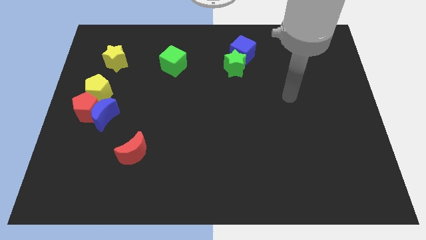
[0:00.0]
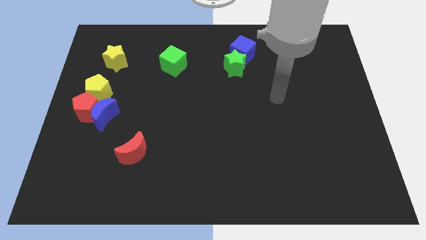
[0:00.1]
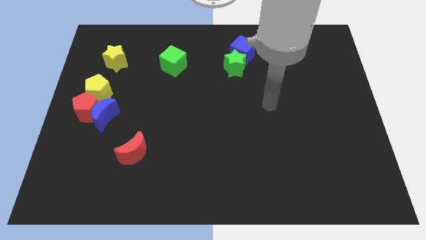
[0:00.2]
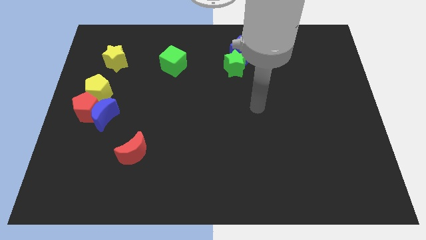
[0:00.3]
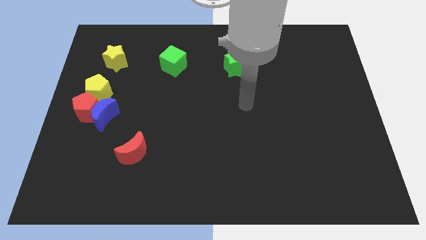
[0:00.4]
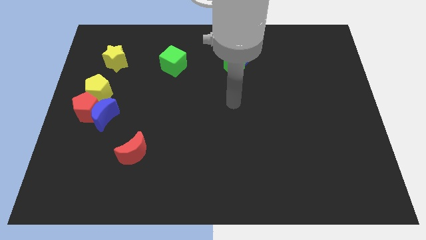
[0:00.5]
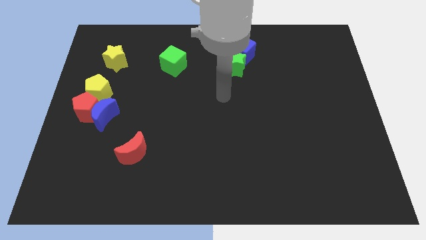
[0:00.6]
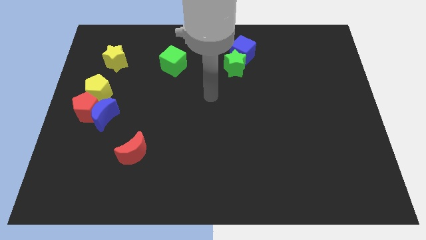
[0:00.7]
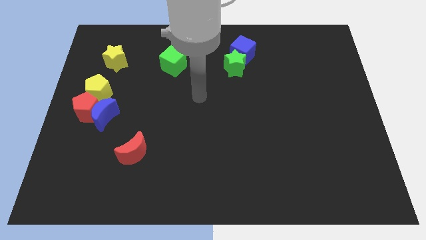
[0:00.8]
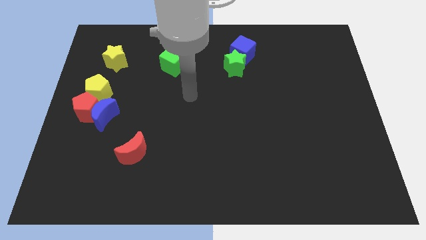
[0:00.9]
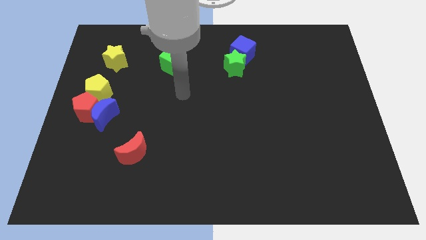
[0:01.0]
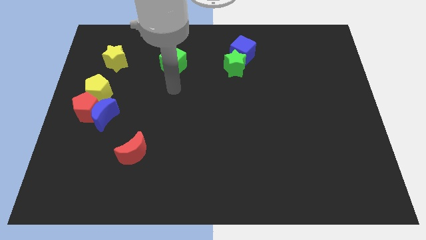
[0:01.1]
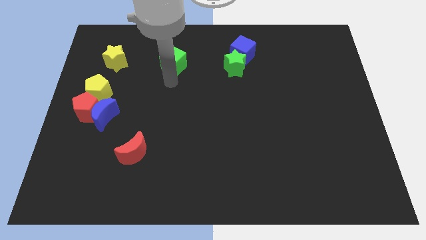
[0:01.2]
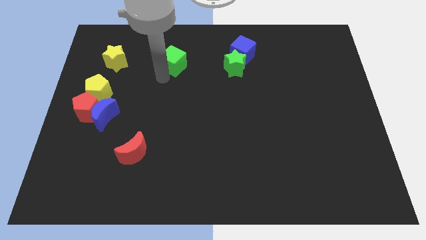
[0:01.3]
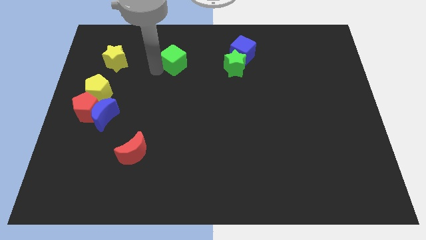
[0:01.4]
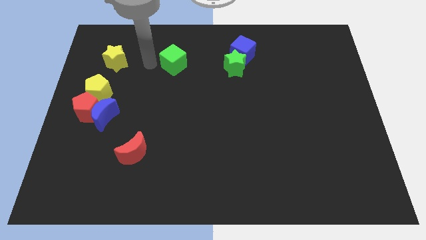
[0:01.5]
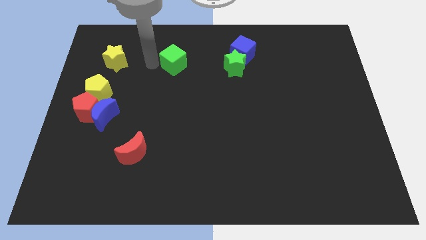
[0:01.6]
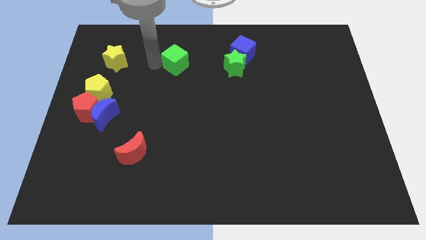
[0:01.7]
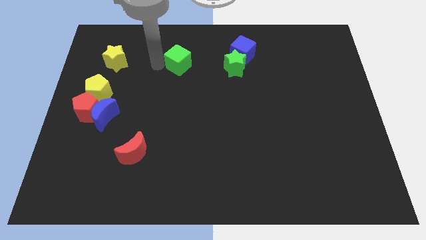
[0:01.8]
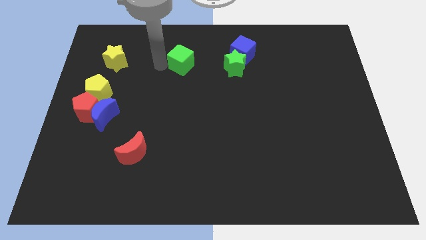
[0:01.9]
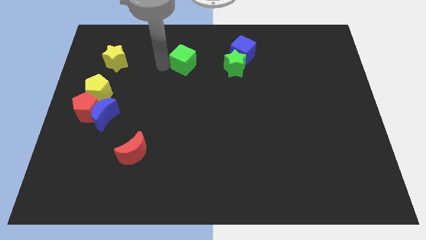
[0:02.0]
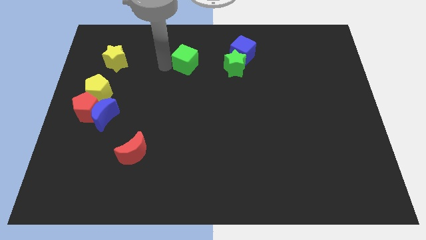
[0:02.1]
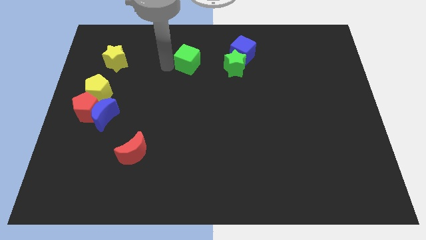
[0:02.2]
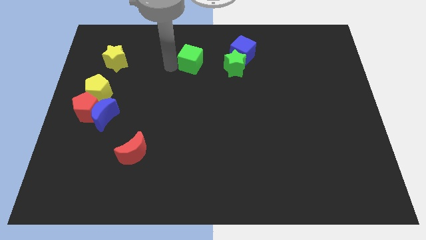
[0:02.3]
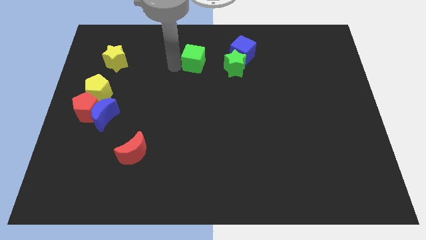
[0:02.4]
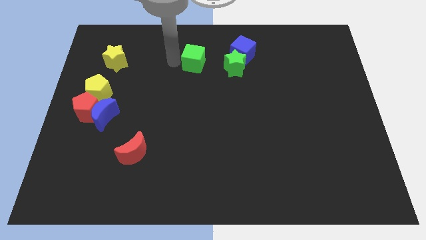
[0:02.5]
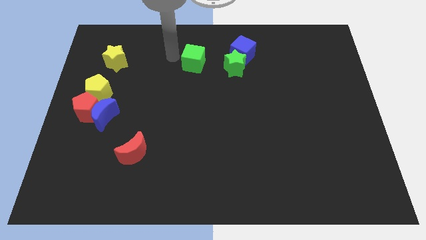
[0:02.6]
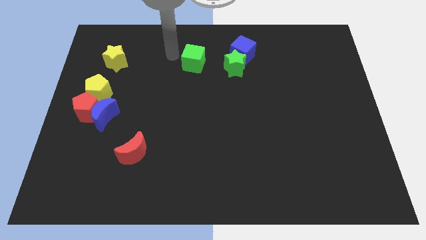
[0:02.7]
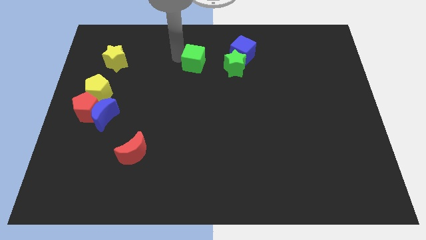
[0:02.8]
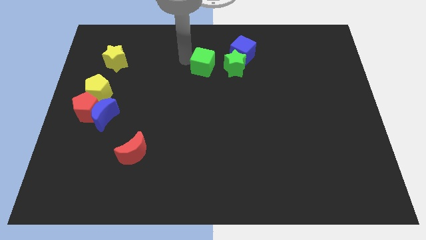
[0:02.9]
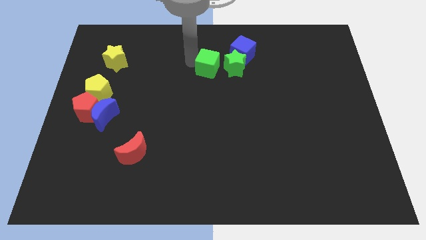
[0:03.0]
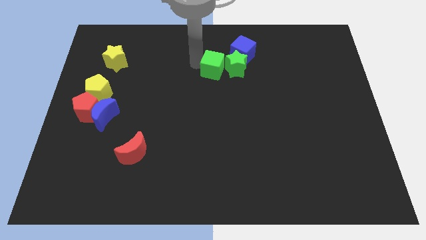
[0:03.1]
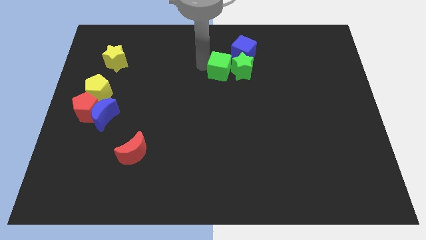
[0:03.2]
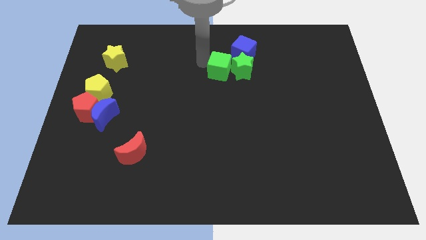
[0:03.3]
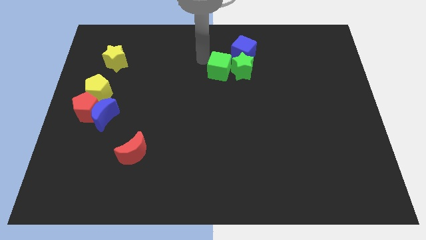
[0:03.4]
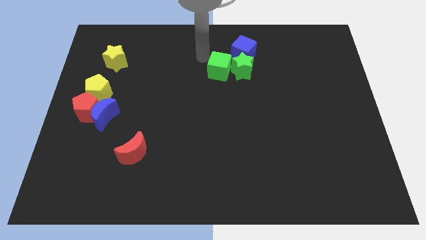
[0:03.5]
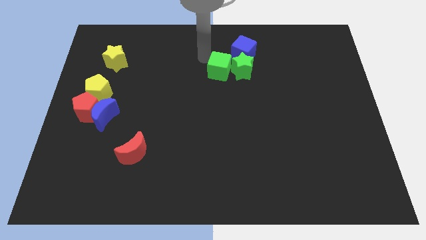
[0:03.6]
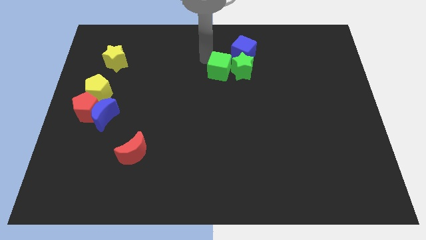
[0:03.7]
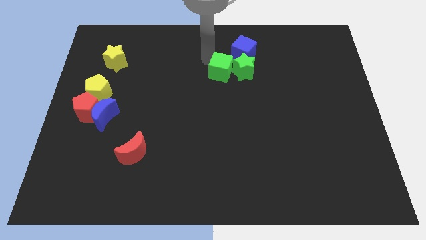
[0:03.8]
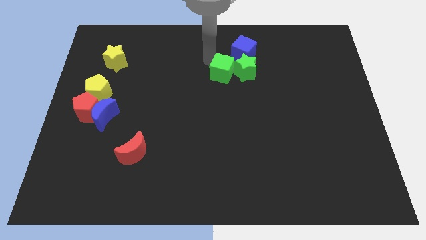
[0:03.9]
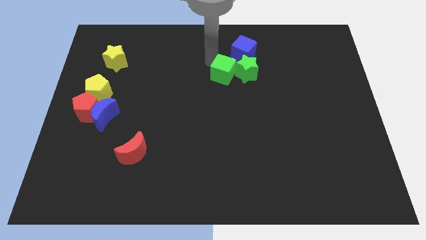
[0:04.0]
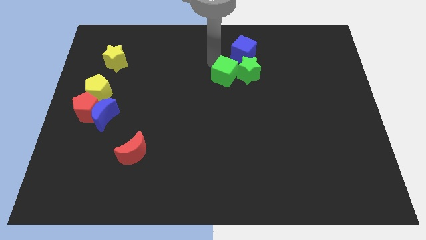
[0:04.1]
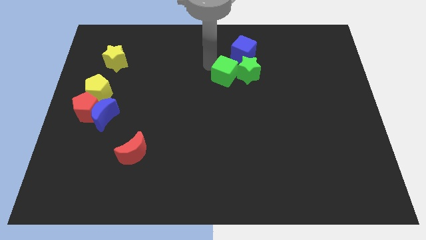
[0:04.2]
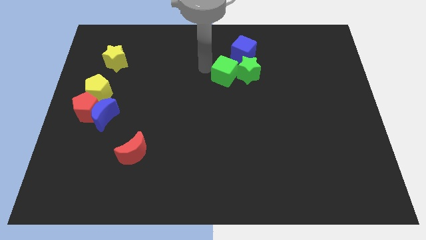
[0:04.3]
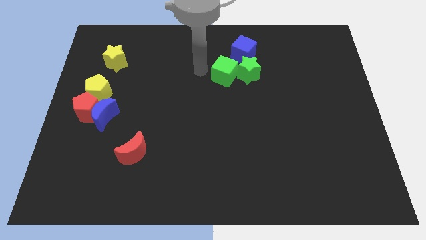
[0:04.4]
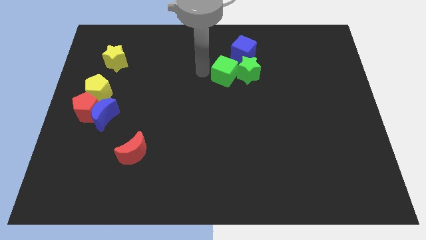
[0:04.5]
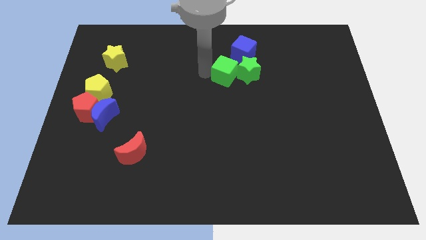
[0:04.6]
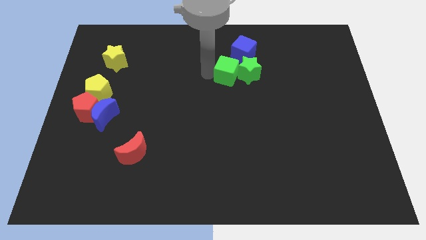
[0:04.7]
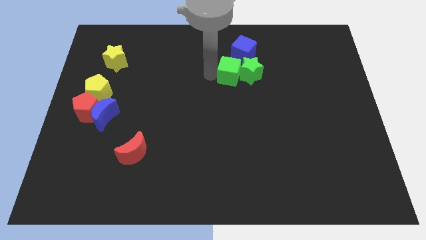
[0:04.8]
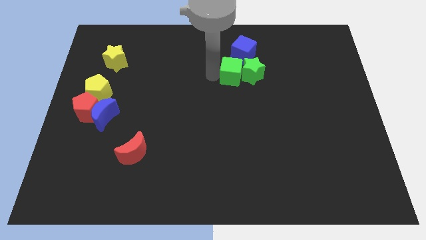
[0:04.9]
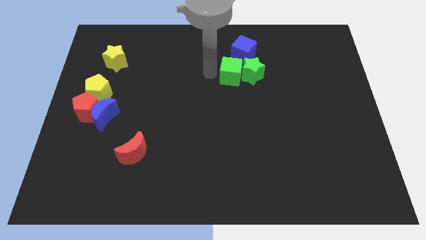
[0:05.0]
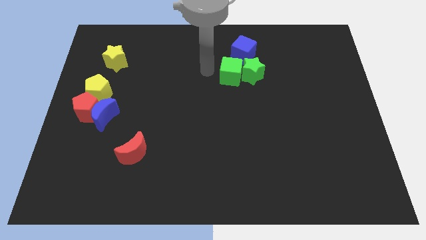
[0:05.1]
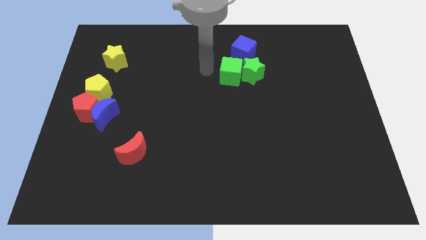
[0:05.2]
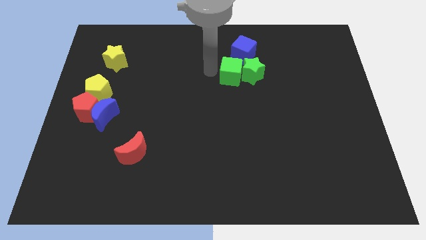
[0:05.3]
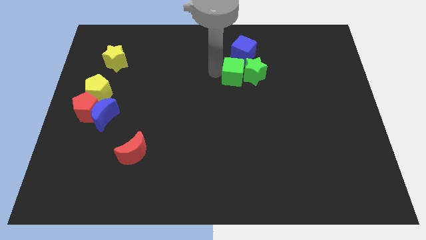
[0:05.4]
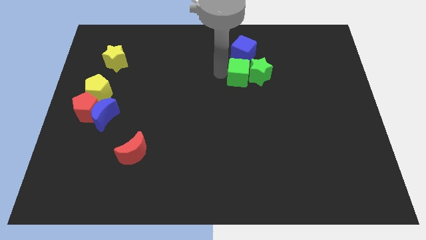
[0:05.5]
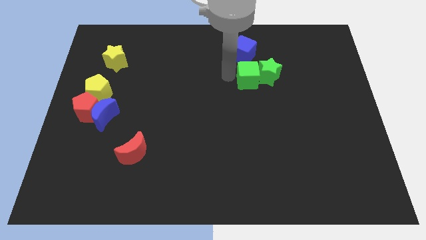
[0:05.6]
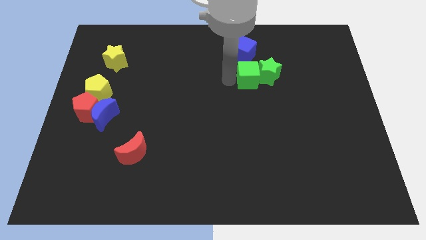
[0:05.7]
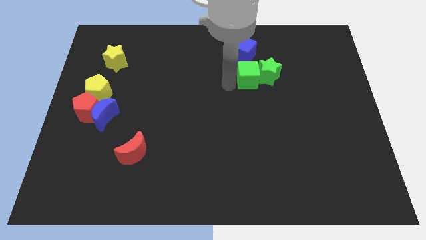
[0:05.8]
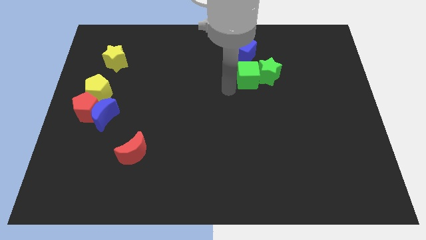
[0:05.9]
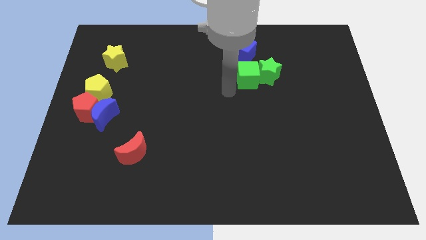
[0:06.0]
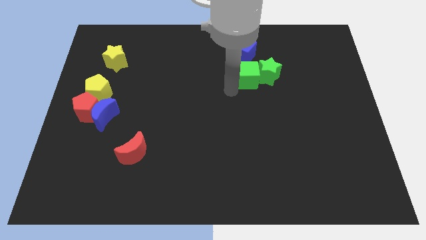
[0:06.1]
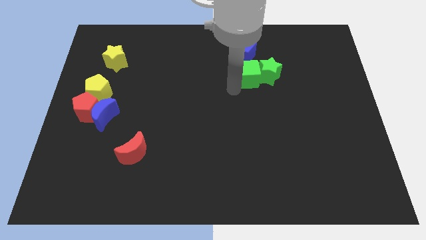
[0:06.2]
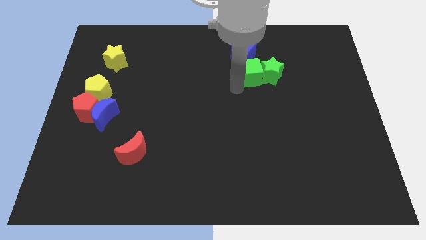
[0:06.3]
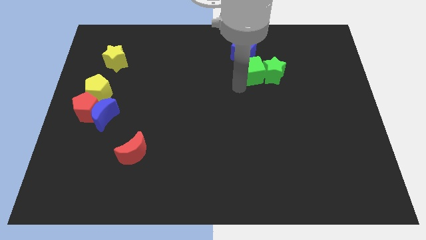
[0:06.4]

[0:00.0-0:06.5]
push the green cube right

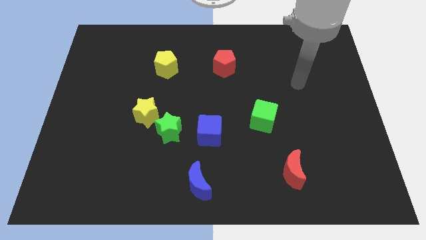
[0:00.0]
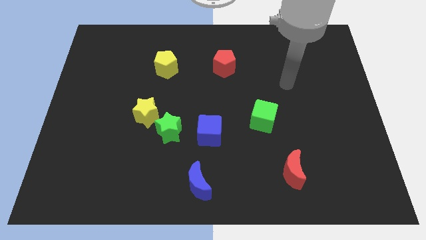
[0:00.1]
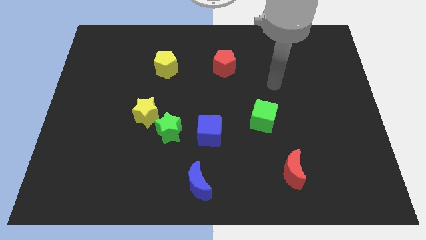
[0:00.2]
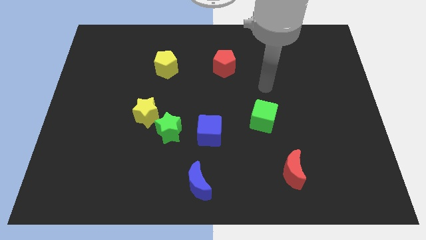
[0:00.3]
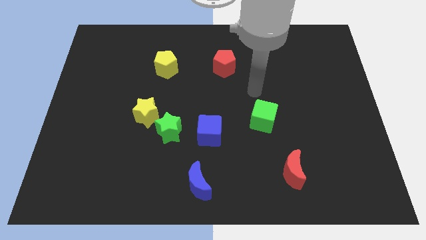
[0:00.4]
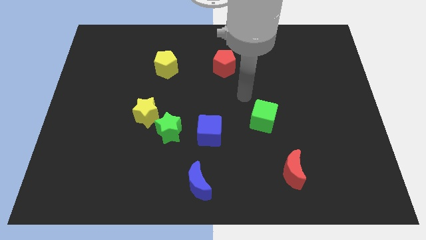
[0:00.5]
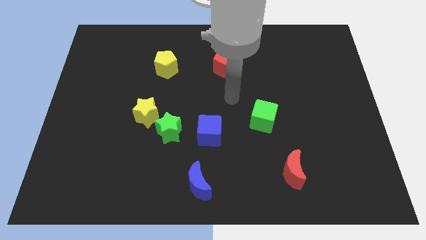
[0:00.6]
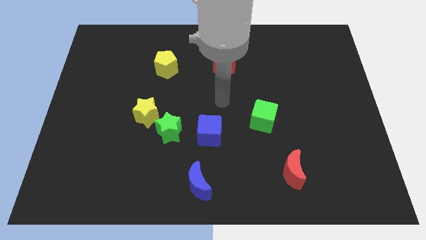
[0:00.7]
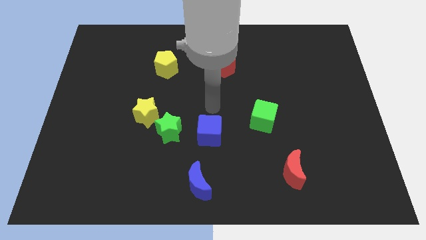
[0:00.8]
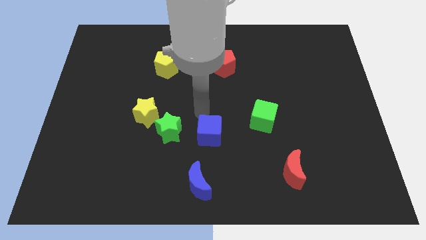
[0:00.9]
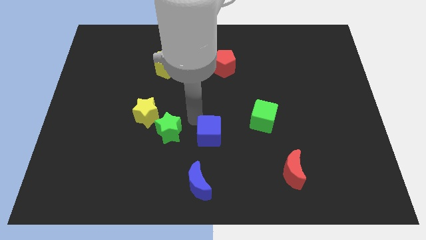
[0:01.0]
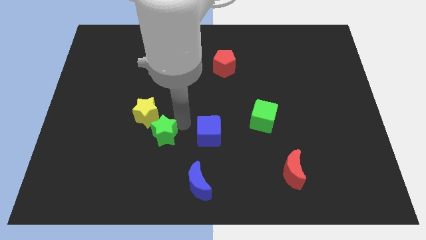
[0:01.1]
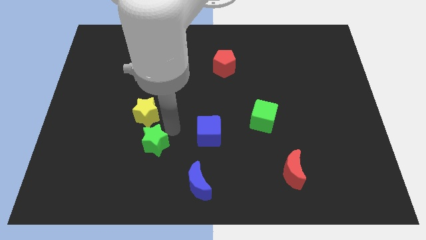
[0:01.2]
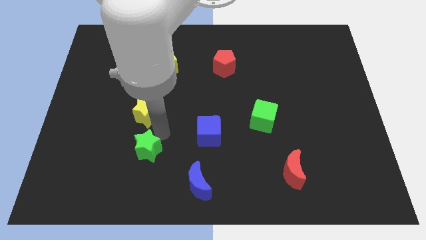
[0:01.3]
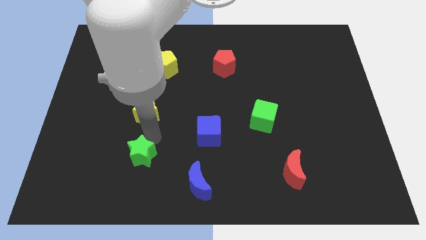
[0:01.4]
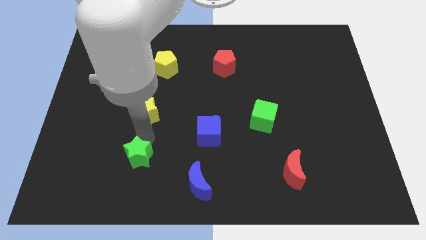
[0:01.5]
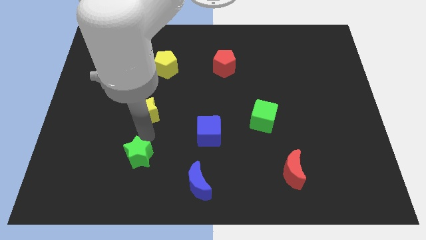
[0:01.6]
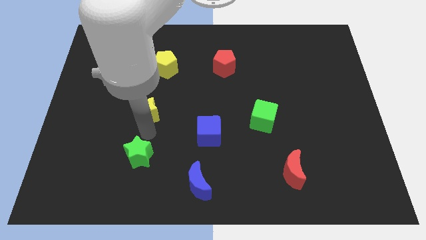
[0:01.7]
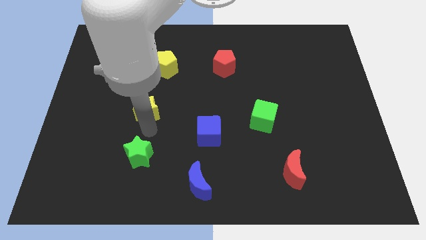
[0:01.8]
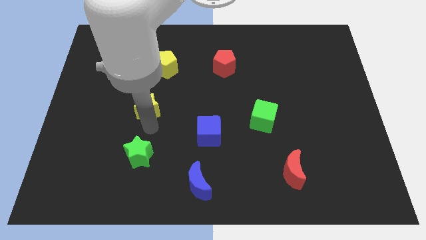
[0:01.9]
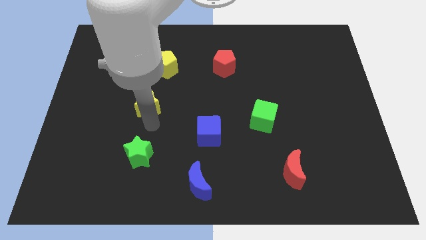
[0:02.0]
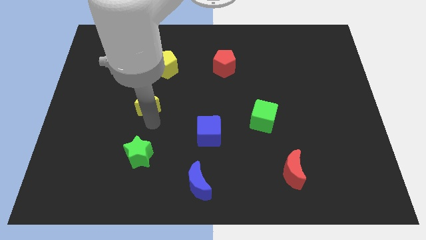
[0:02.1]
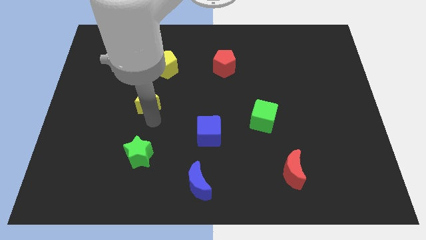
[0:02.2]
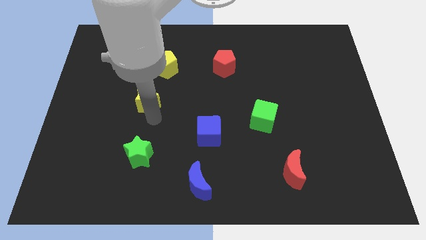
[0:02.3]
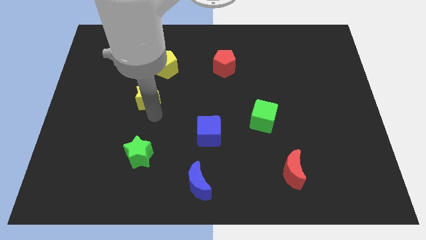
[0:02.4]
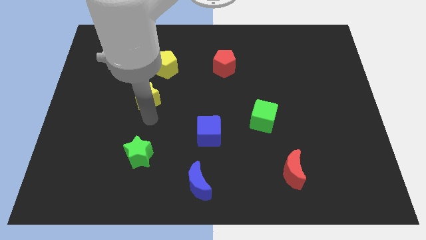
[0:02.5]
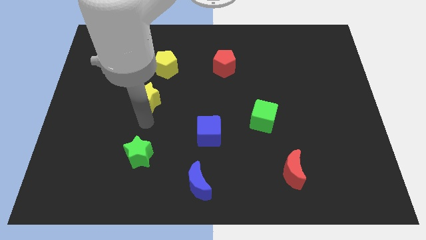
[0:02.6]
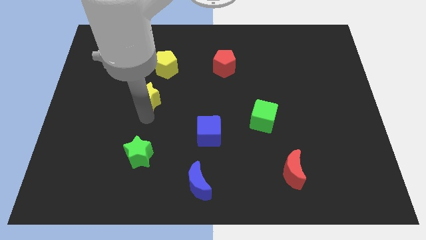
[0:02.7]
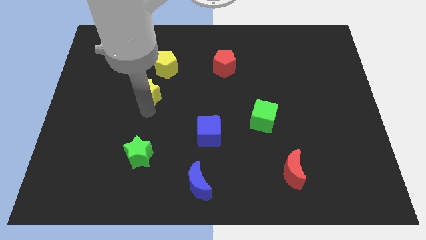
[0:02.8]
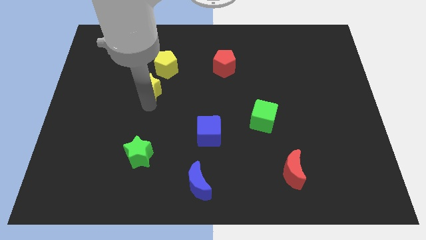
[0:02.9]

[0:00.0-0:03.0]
push the yellow star up slightly
